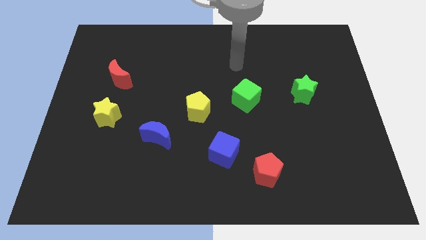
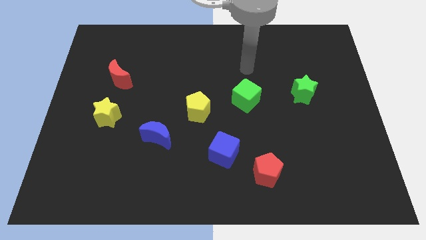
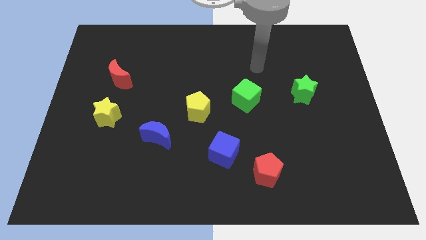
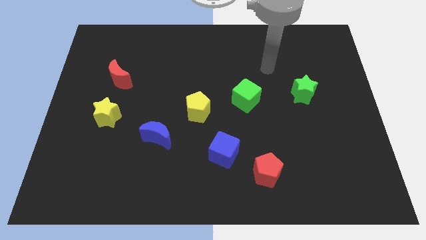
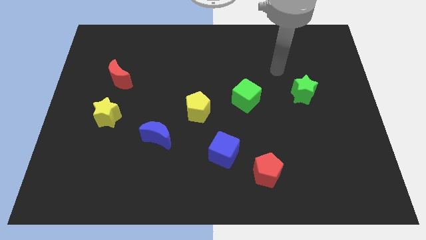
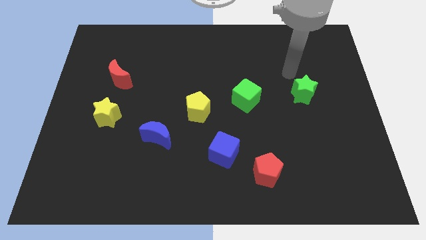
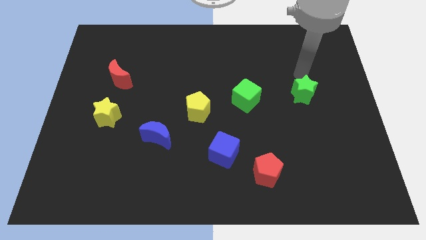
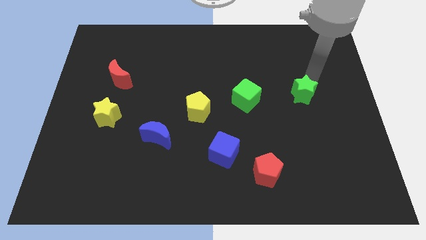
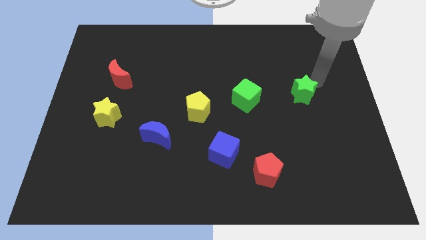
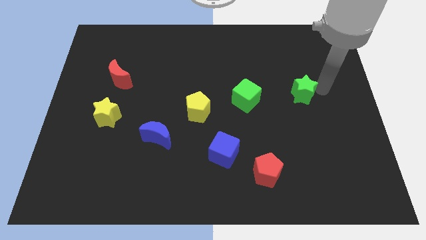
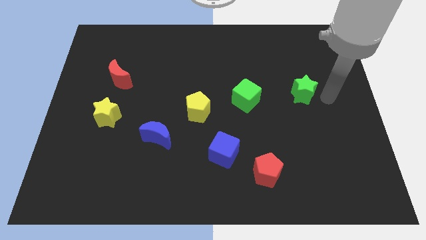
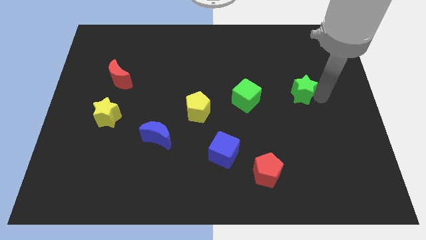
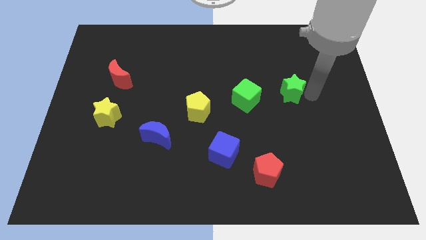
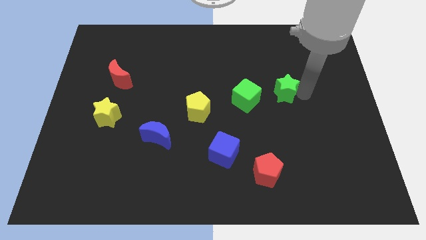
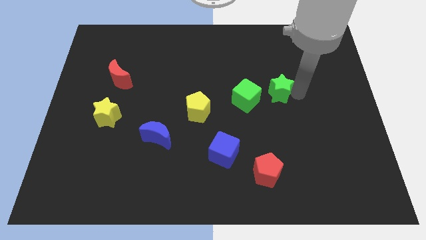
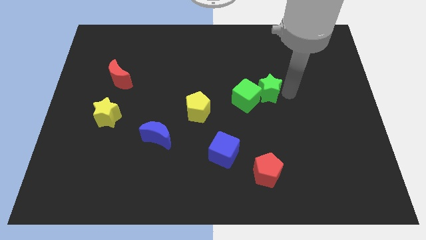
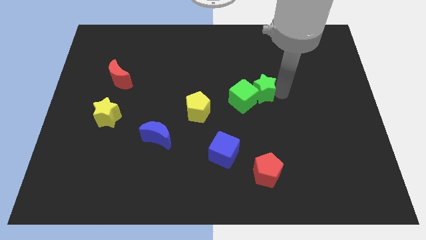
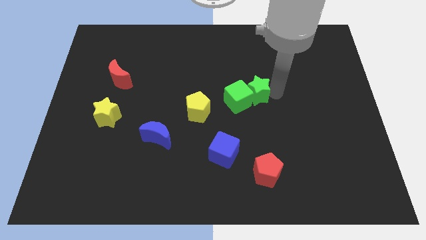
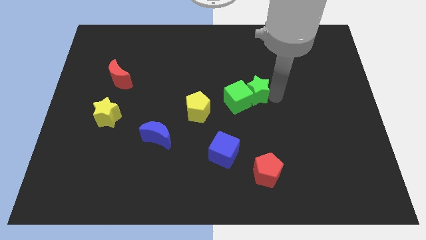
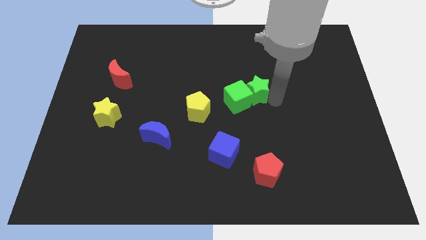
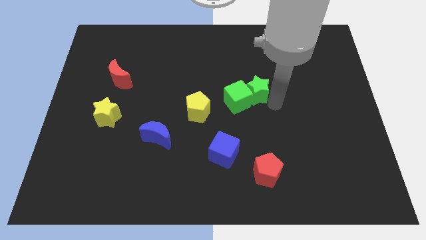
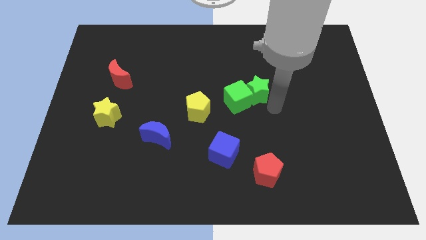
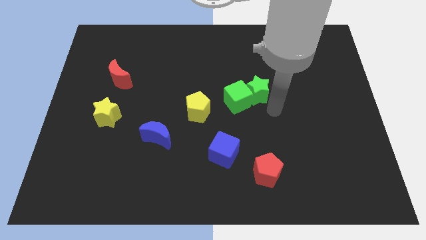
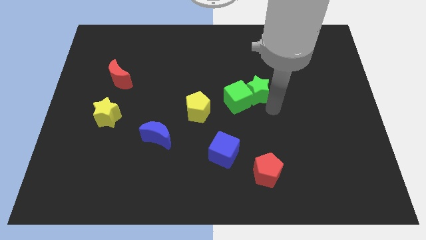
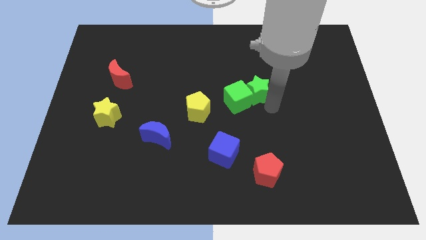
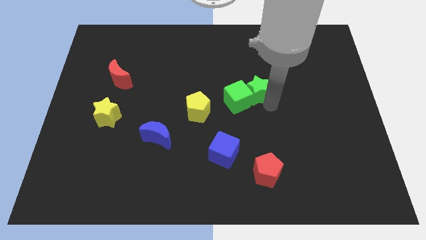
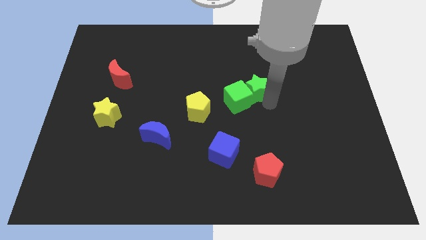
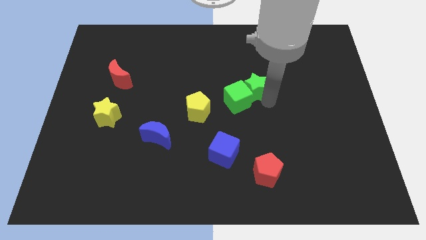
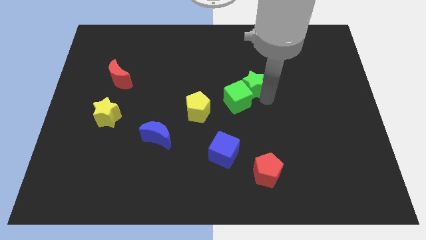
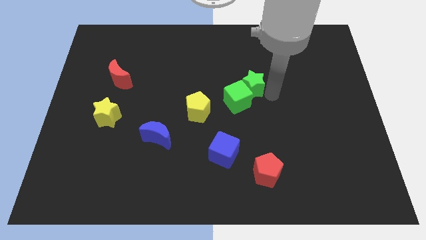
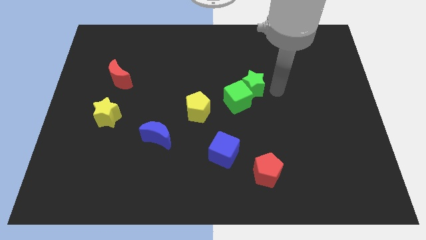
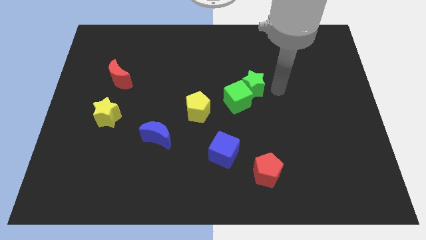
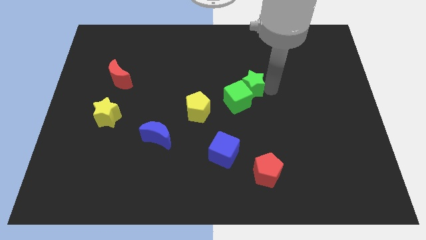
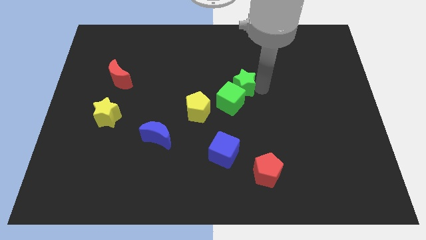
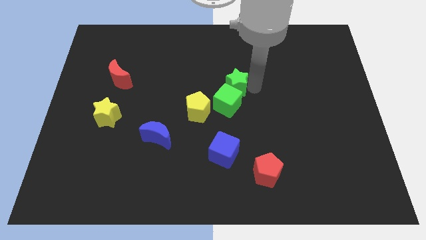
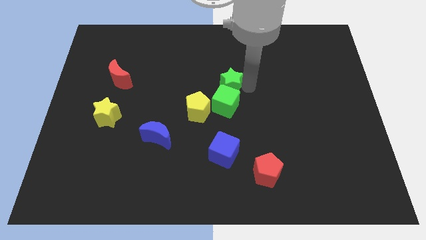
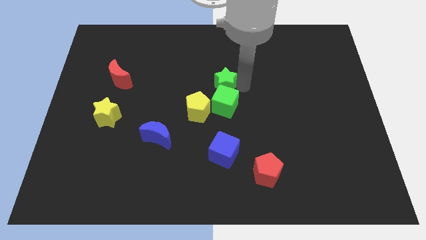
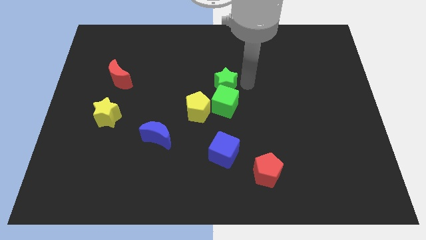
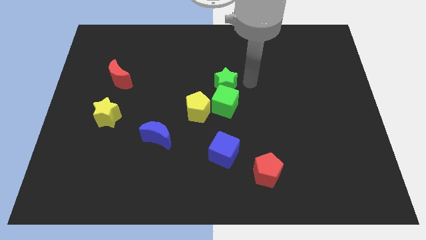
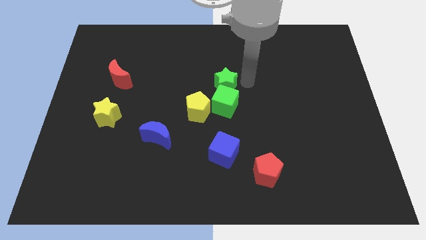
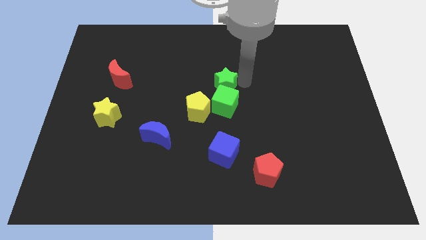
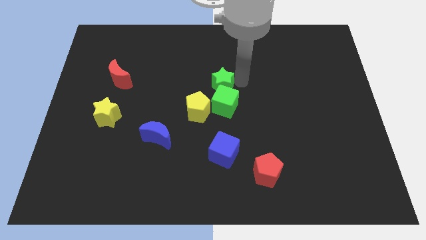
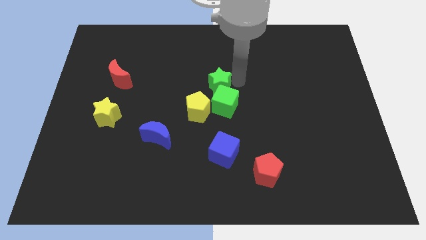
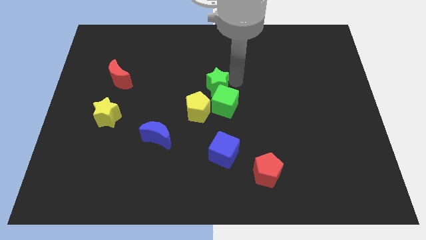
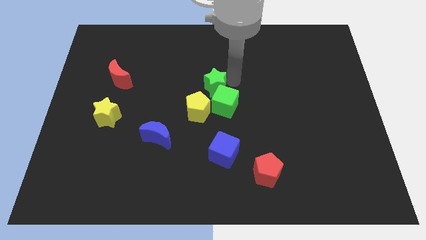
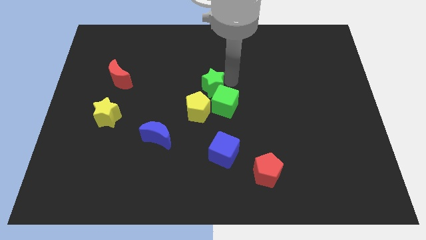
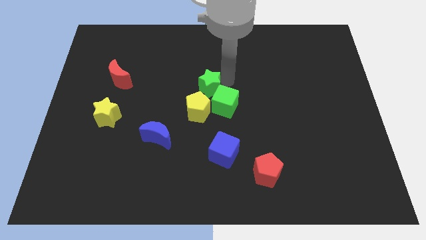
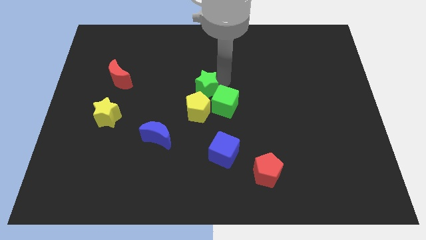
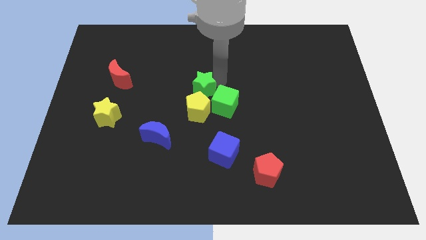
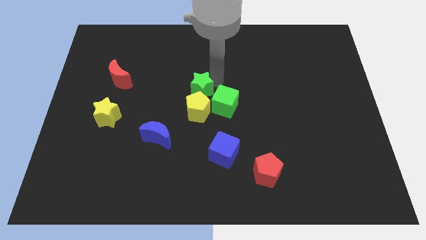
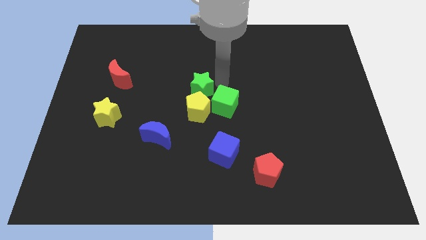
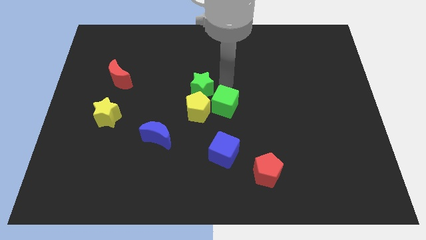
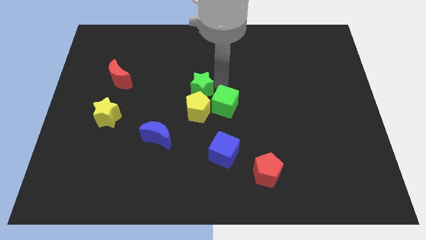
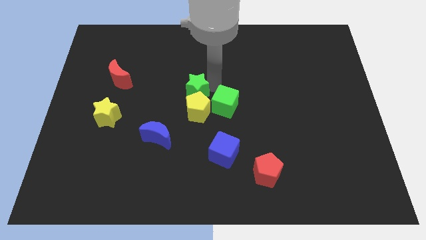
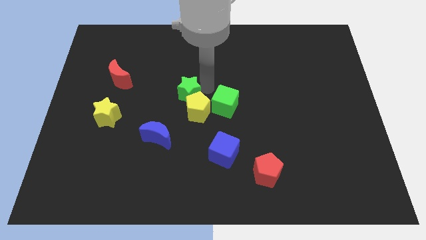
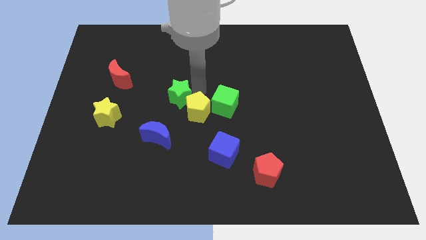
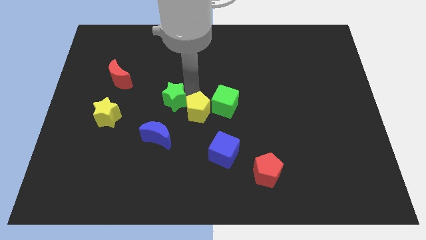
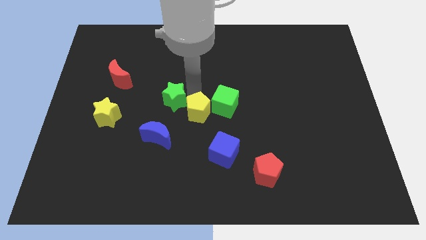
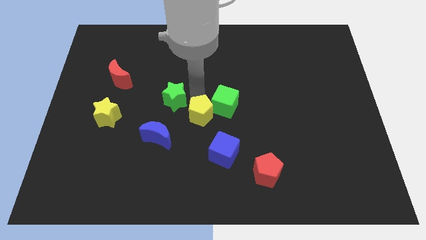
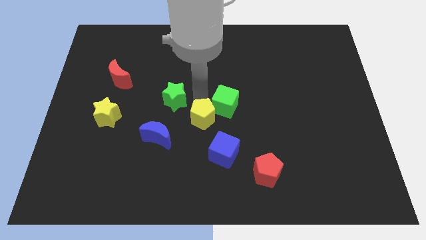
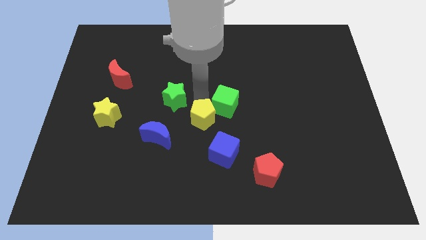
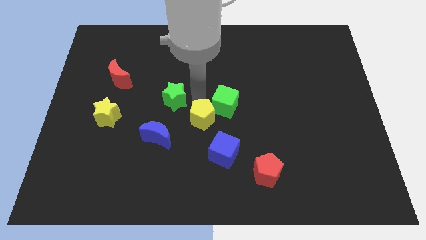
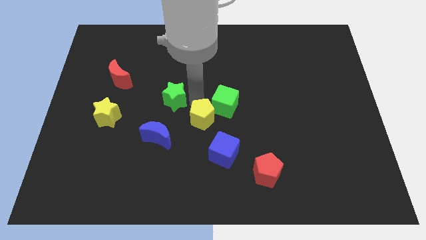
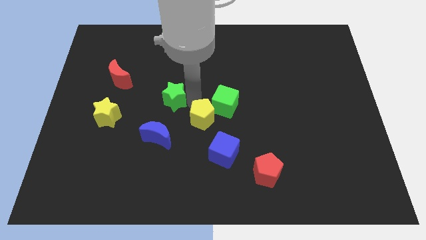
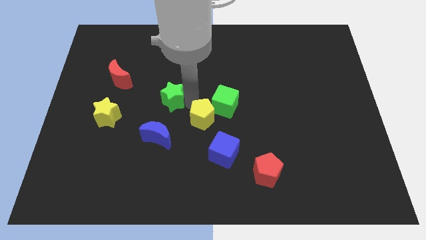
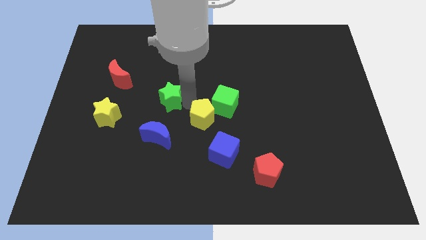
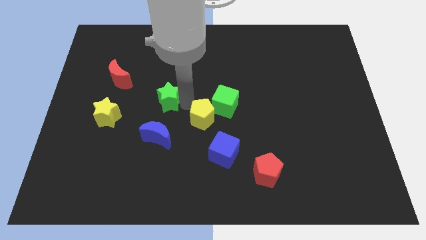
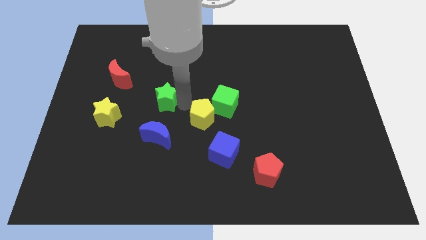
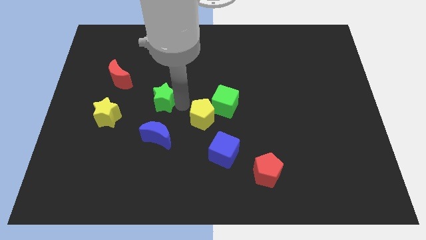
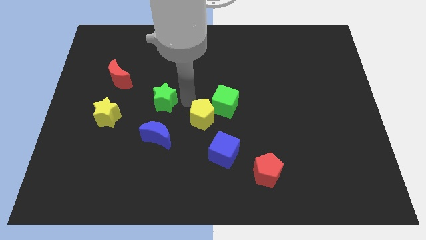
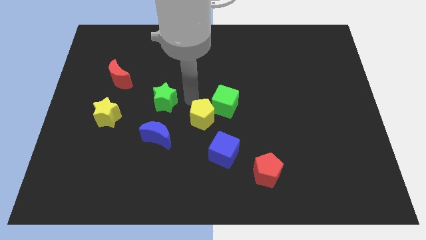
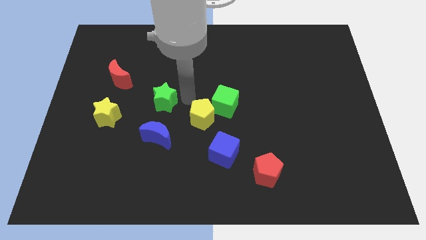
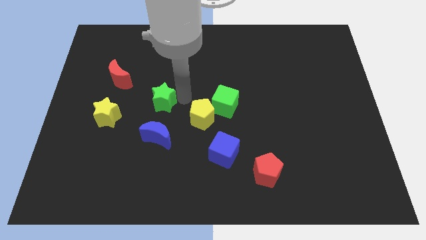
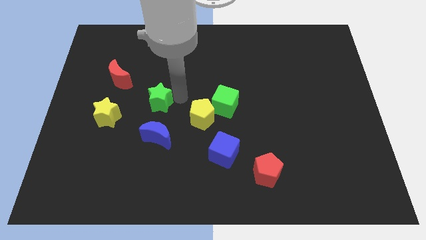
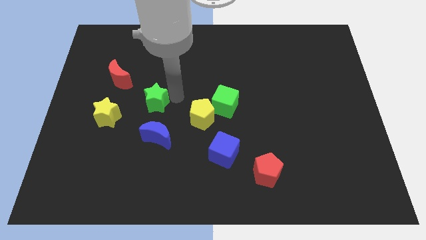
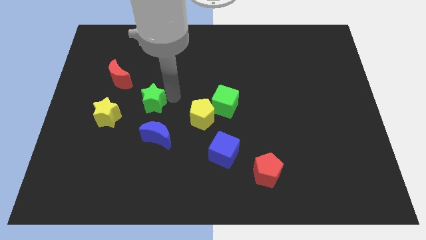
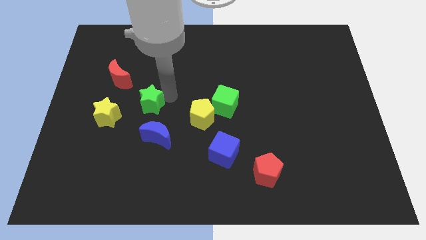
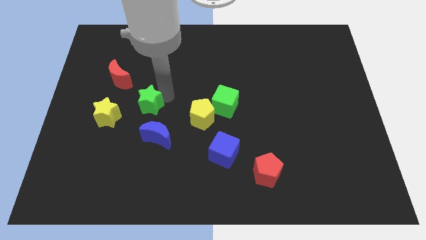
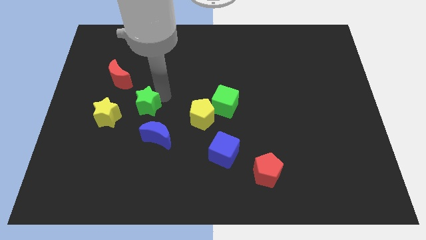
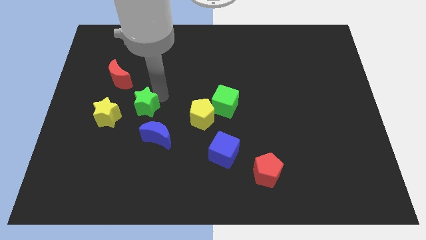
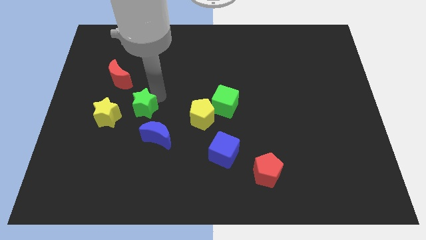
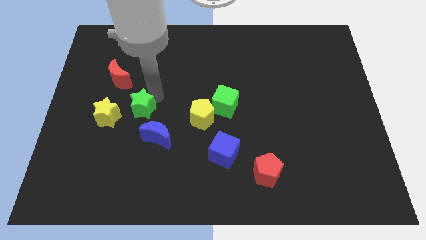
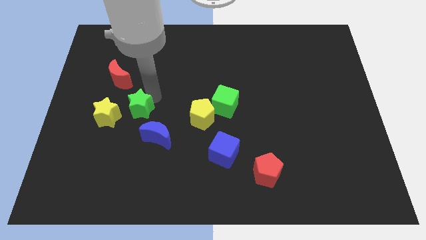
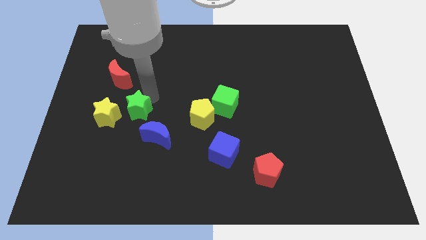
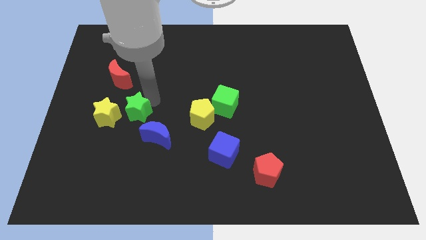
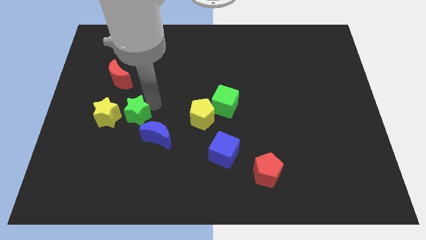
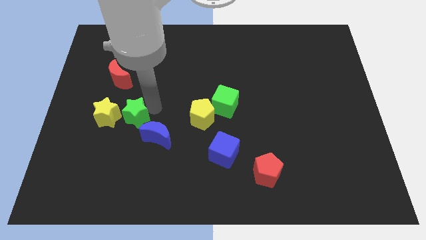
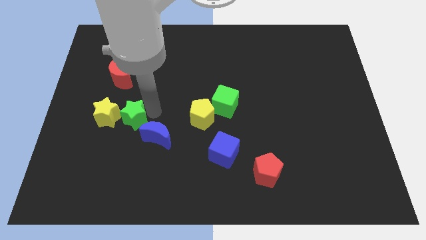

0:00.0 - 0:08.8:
move the green star to the yellow star
